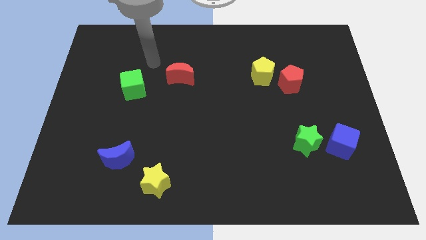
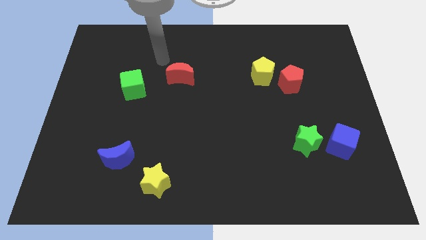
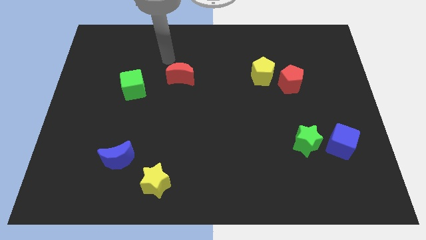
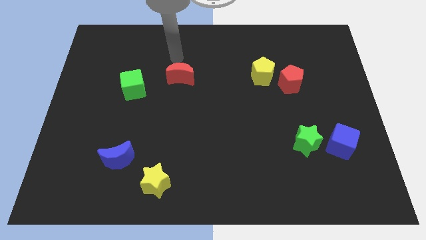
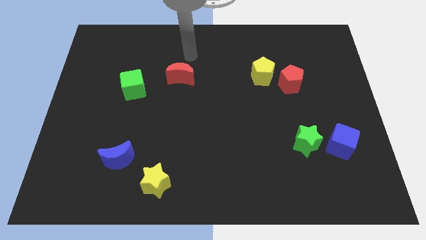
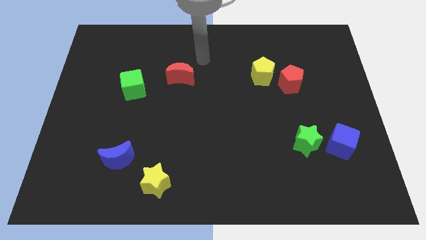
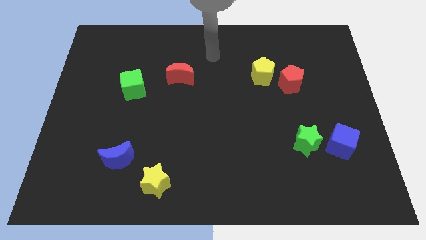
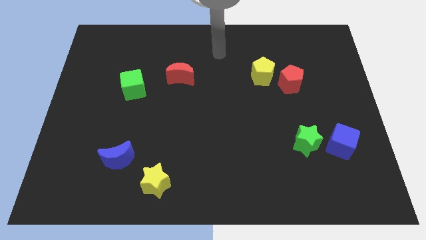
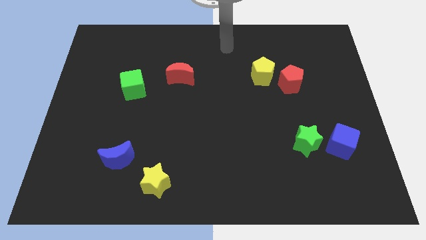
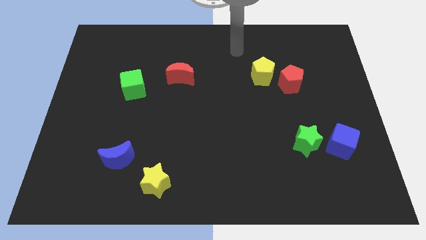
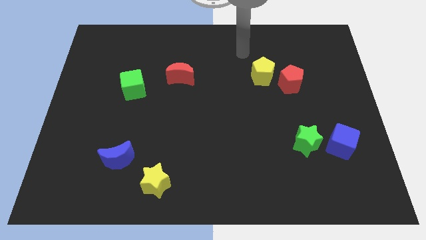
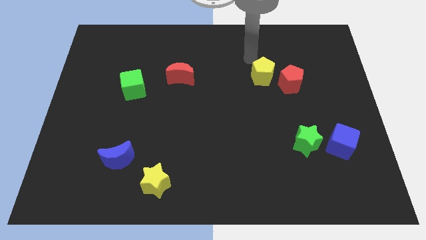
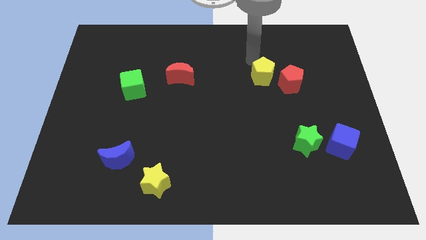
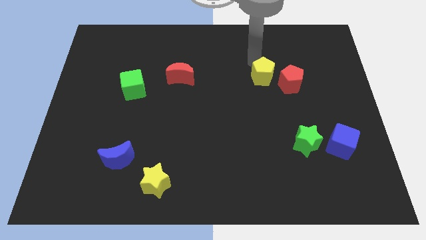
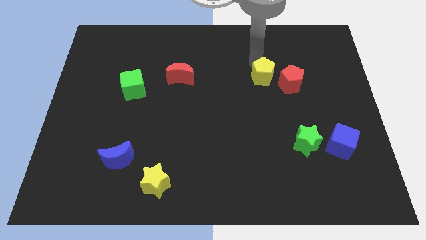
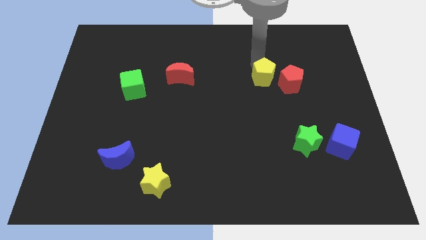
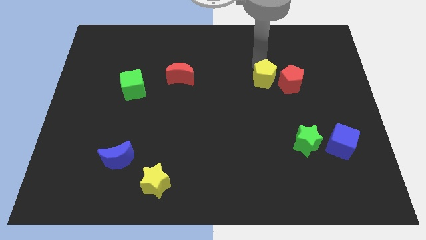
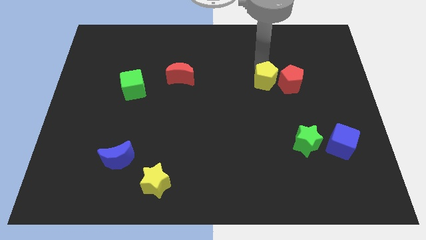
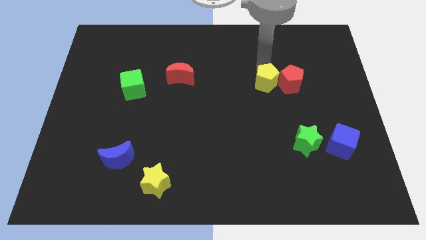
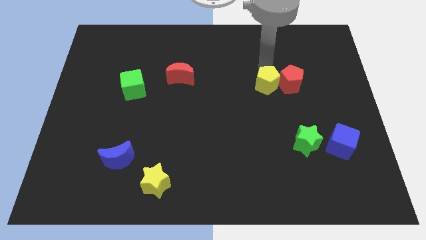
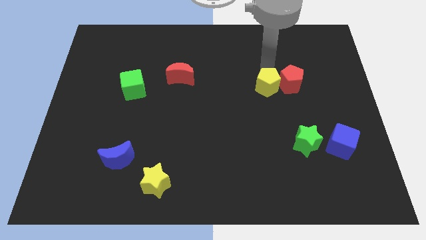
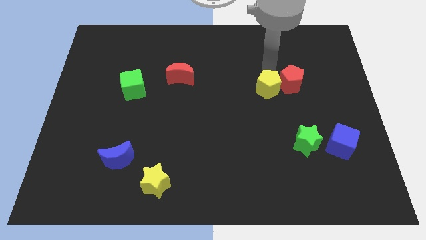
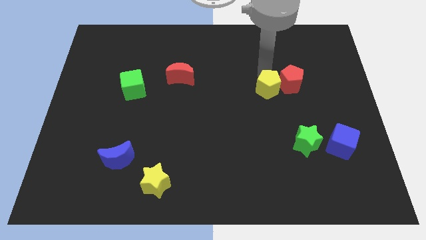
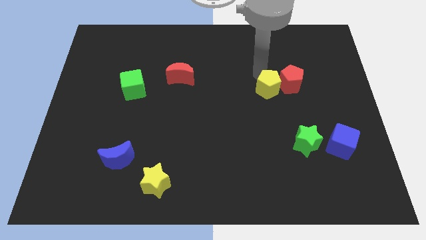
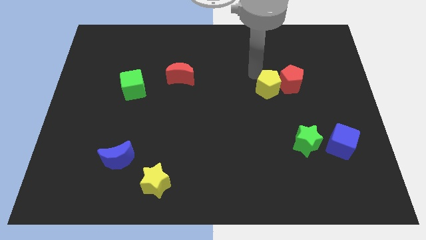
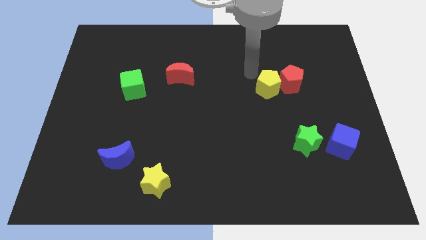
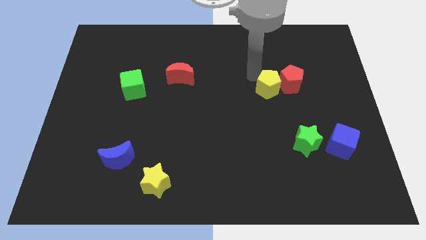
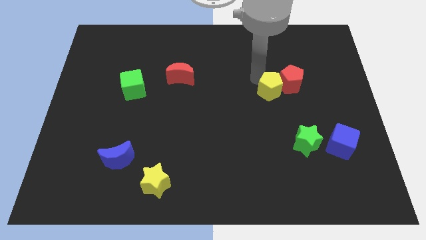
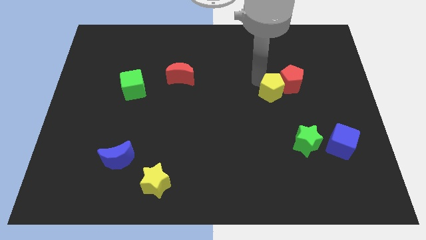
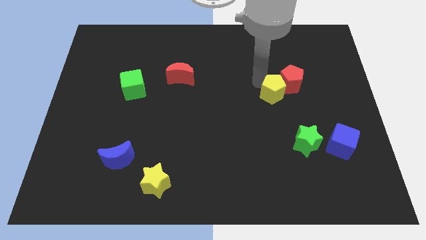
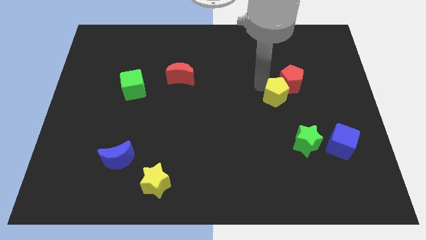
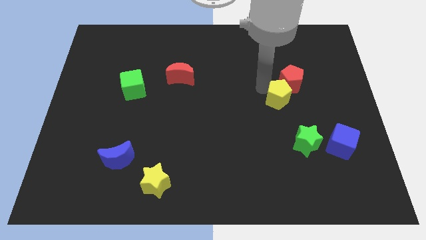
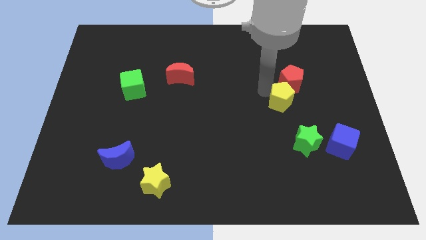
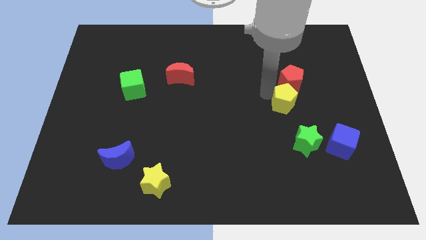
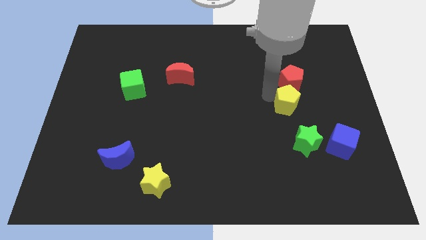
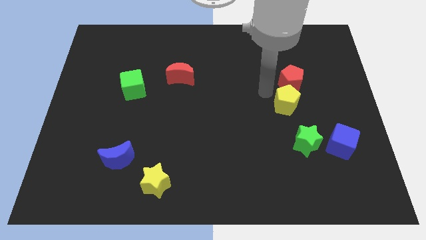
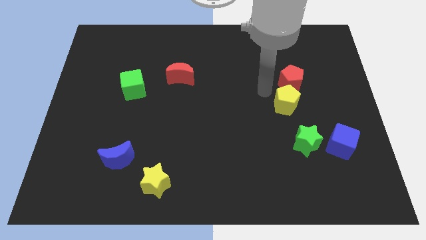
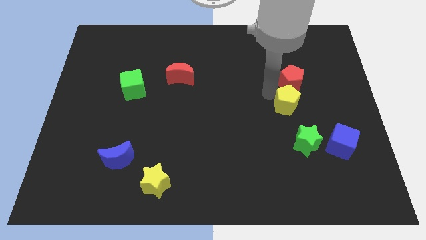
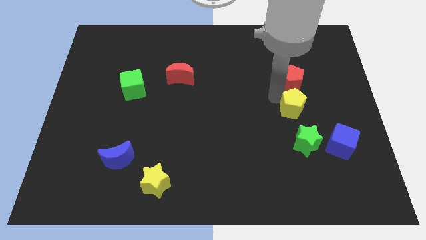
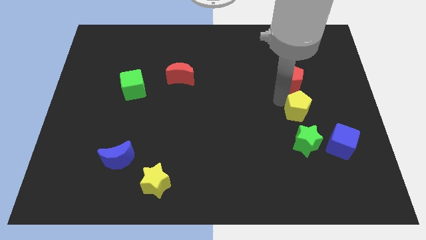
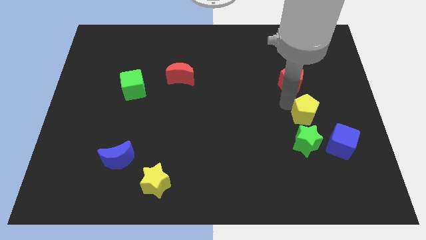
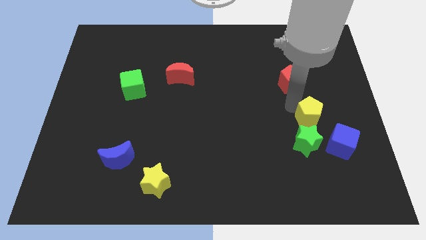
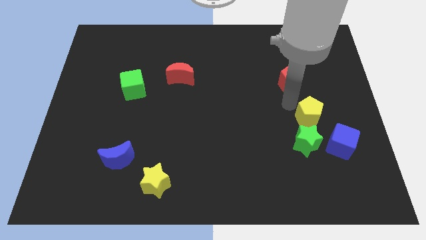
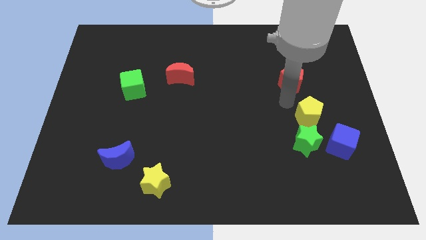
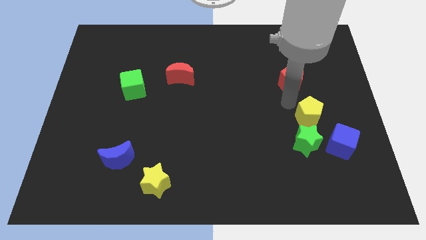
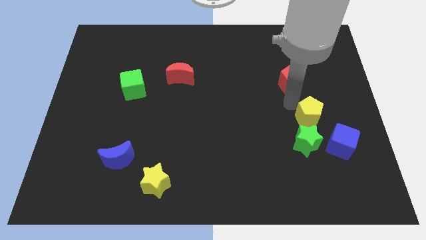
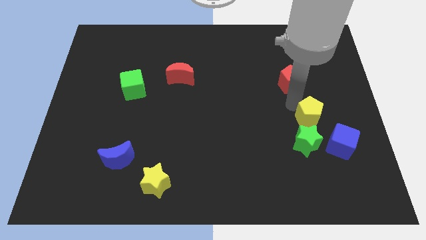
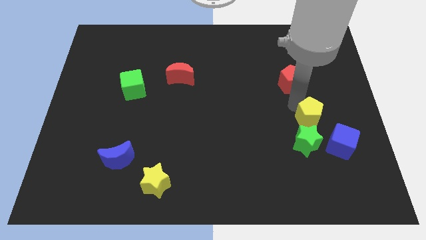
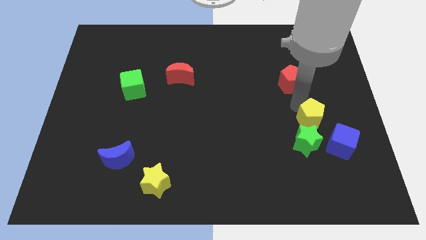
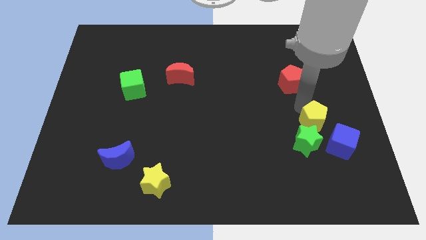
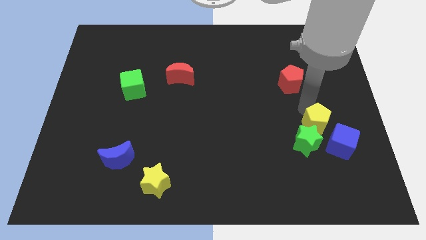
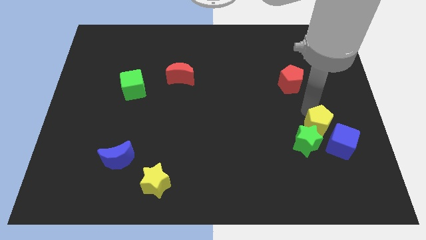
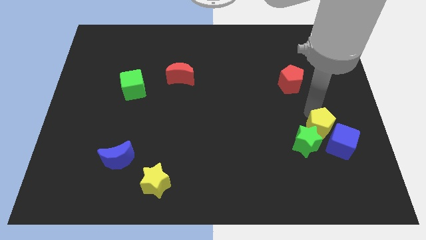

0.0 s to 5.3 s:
push the yellow pentagon to the blue cube

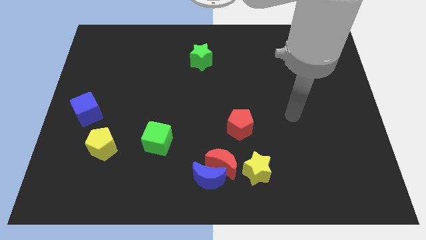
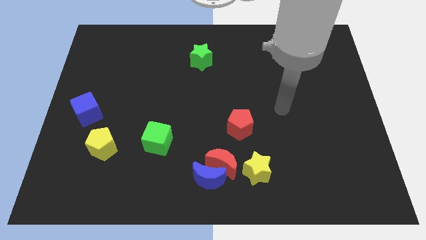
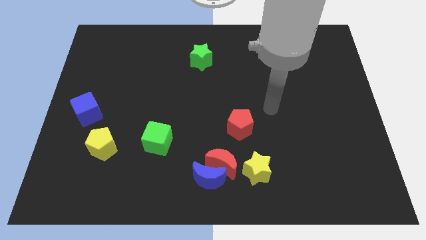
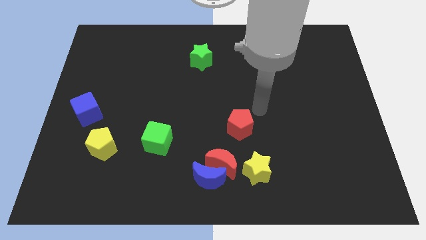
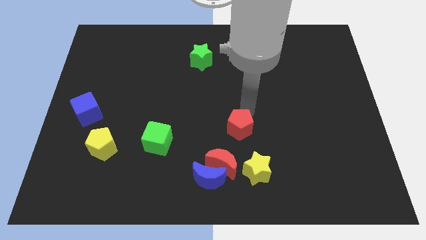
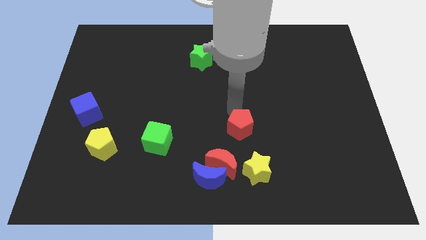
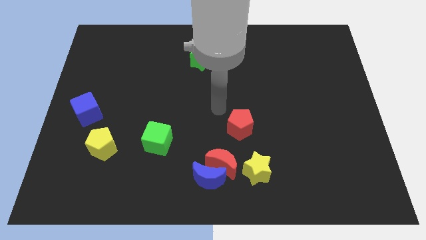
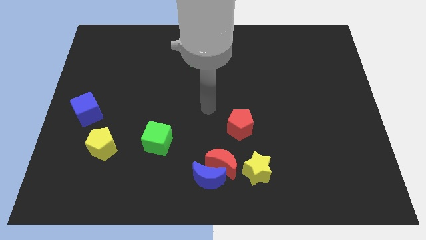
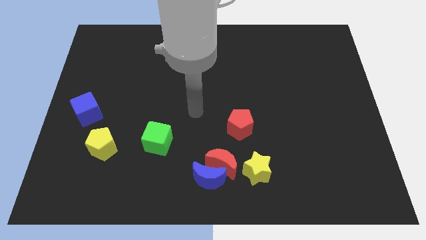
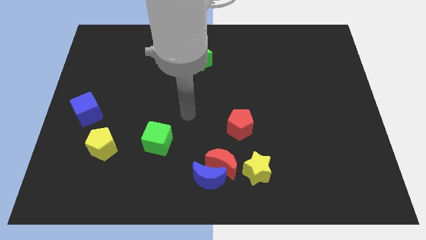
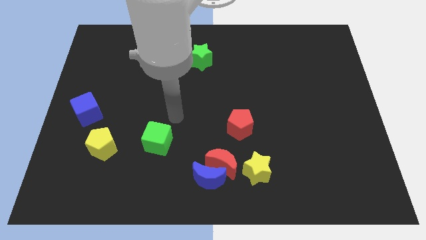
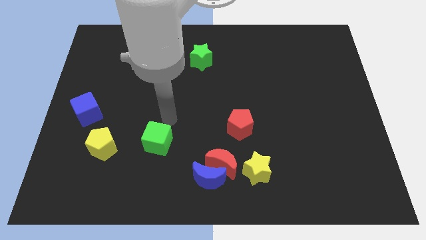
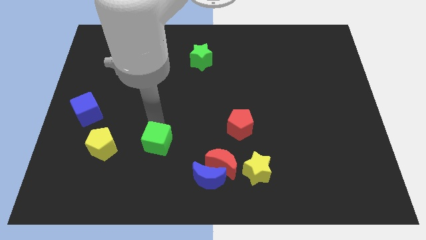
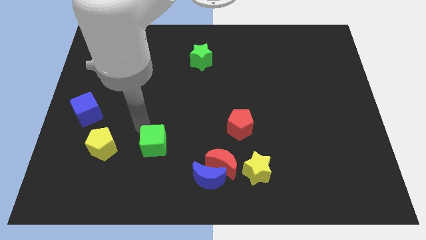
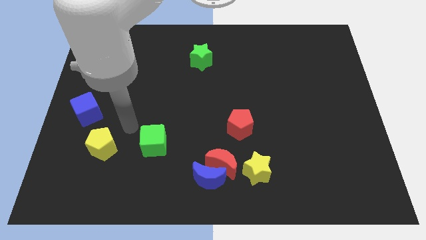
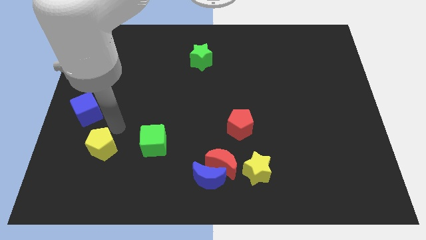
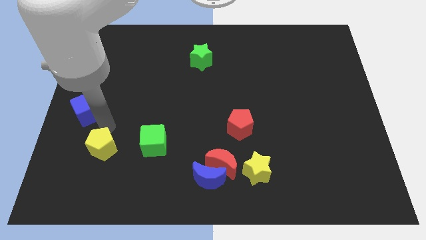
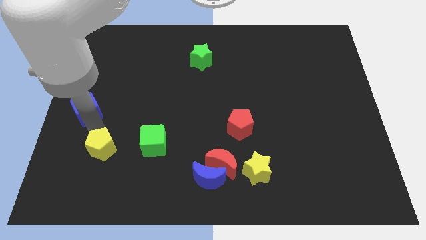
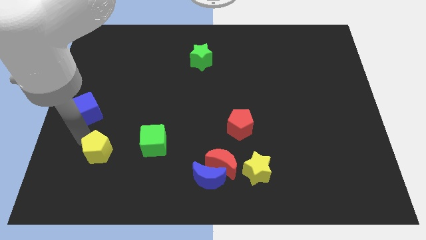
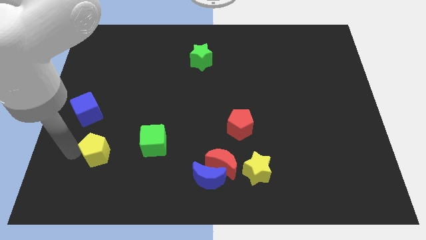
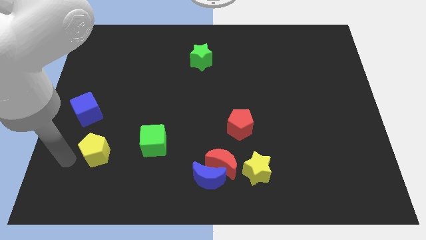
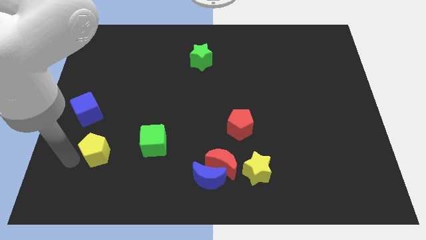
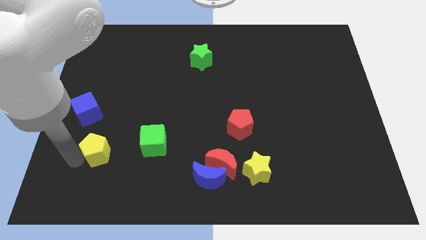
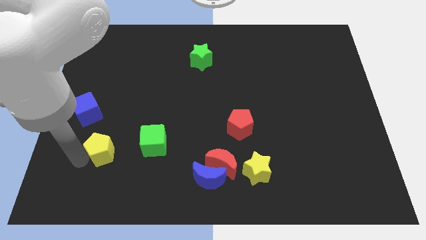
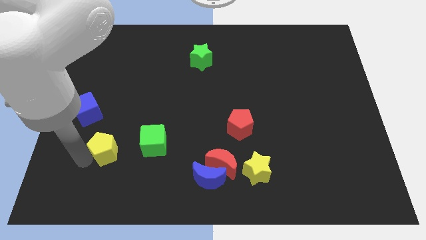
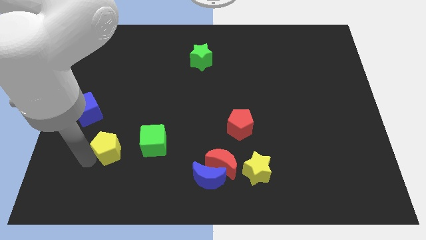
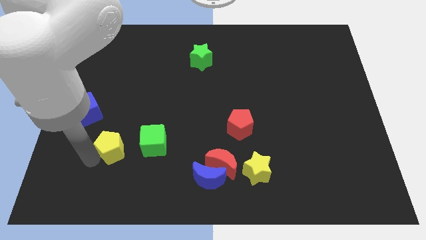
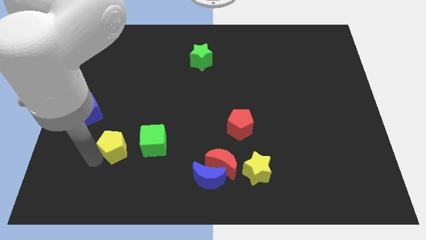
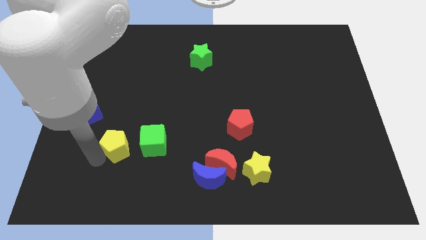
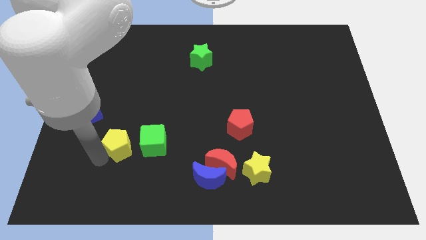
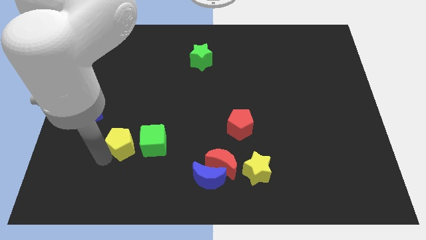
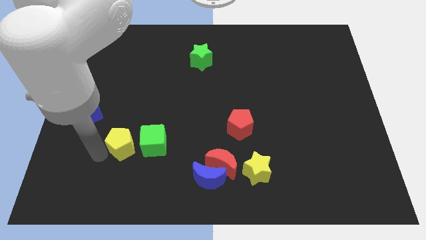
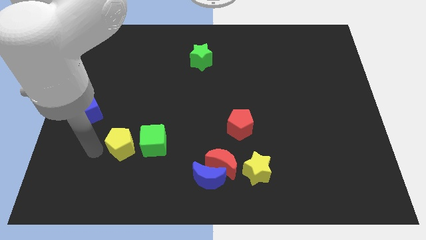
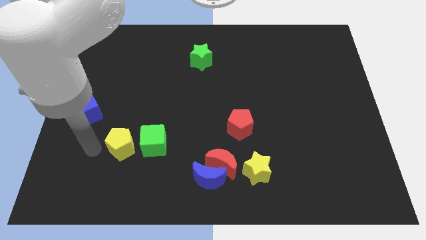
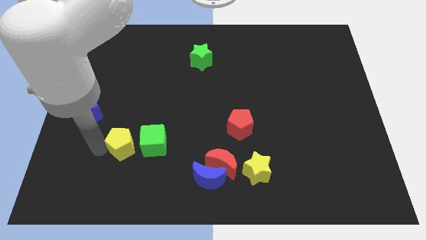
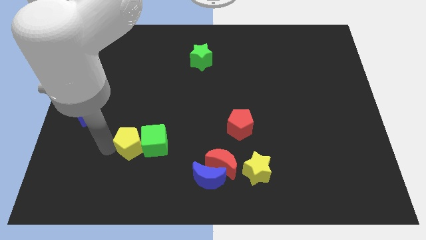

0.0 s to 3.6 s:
put the yellow pentagon close to the green cube
